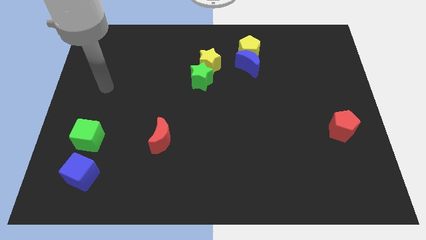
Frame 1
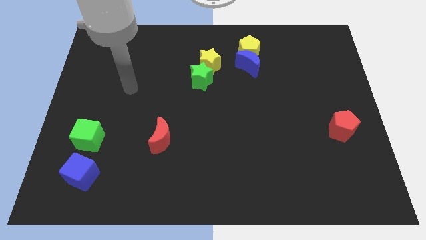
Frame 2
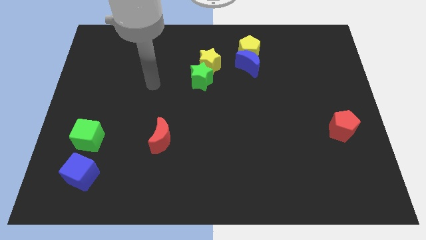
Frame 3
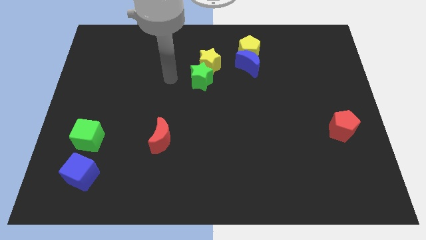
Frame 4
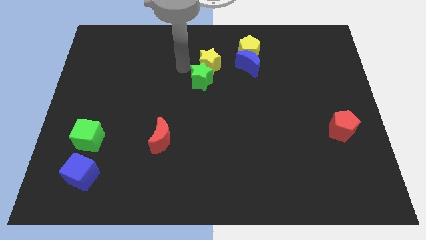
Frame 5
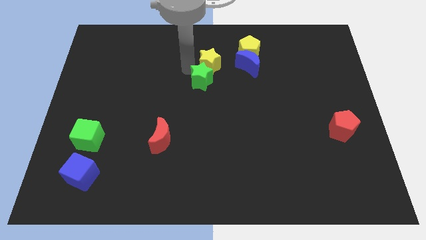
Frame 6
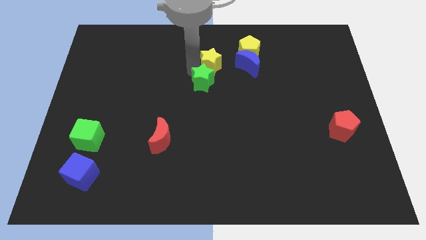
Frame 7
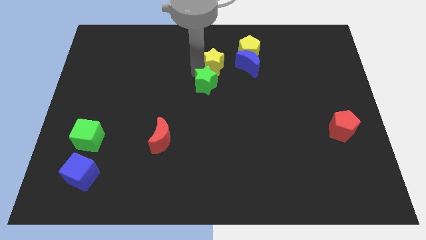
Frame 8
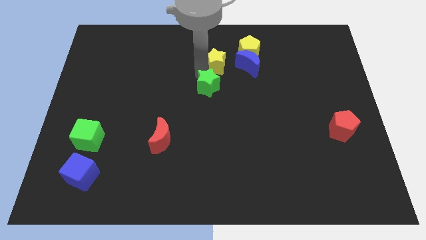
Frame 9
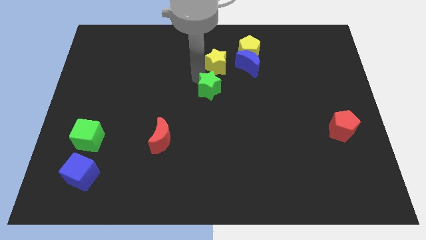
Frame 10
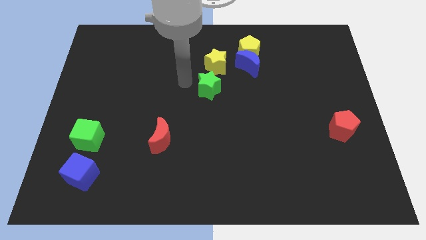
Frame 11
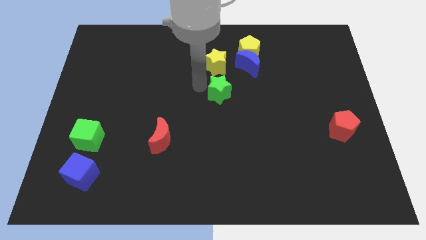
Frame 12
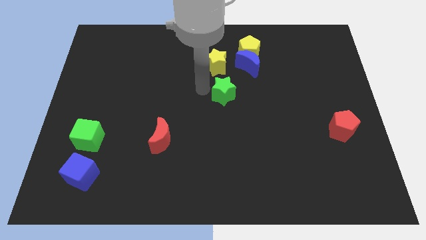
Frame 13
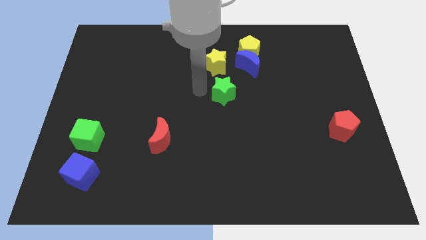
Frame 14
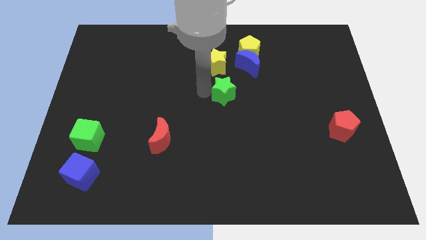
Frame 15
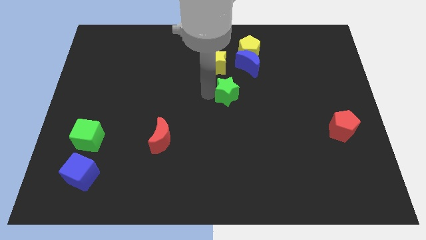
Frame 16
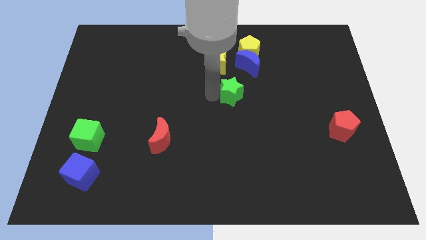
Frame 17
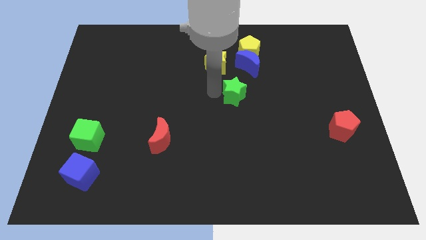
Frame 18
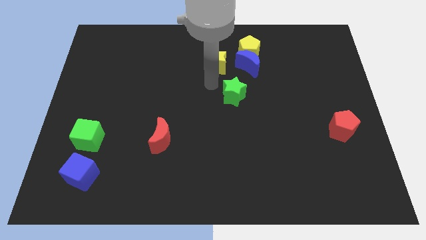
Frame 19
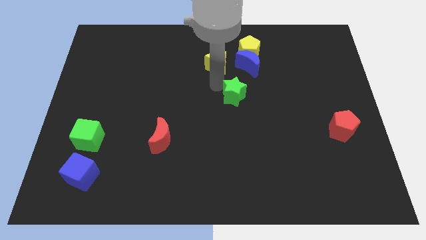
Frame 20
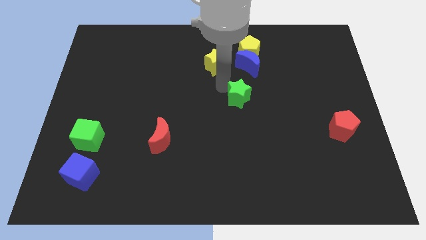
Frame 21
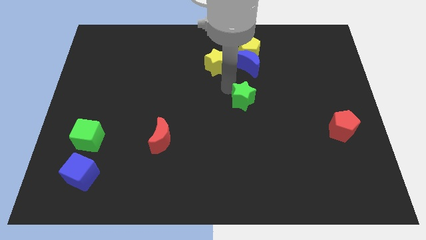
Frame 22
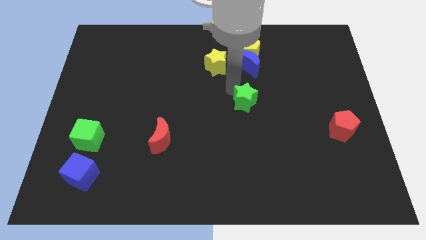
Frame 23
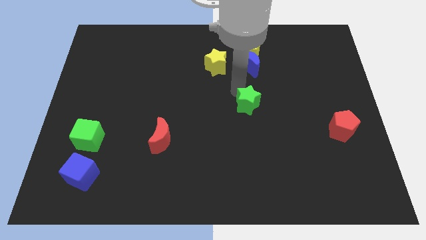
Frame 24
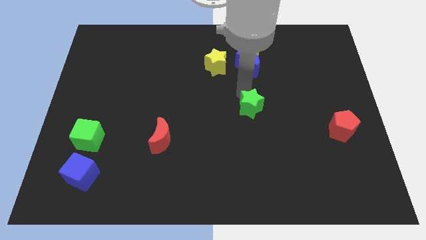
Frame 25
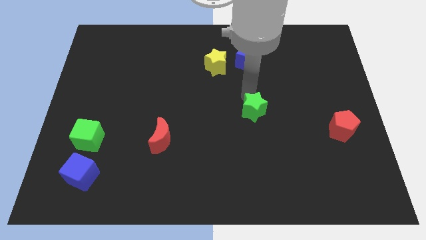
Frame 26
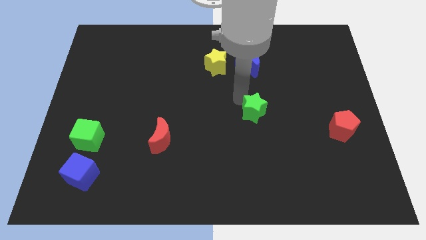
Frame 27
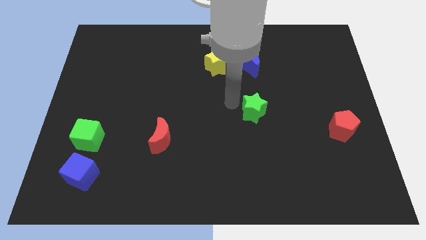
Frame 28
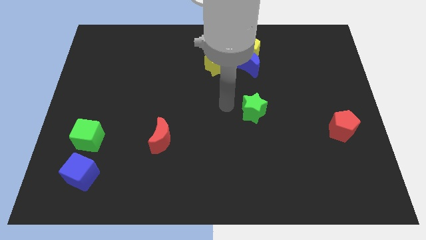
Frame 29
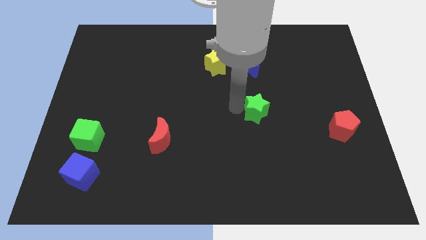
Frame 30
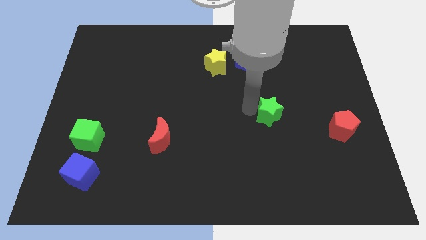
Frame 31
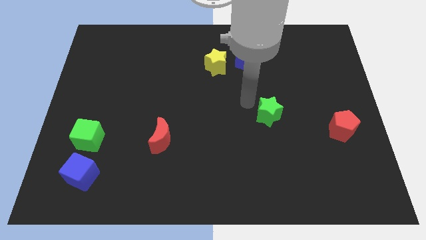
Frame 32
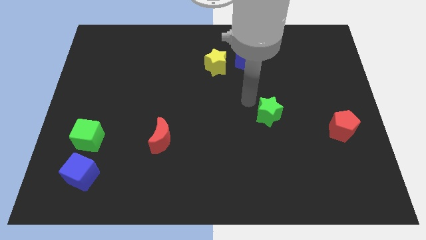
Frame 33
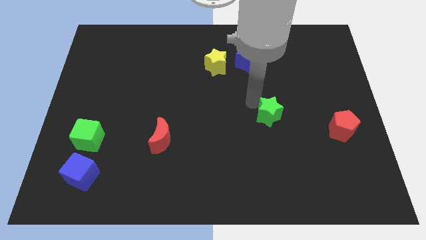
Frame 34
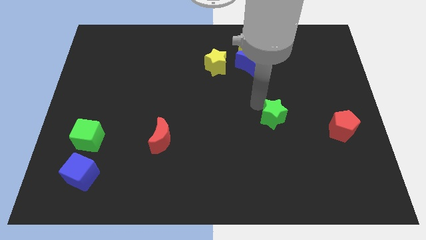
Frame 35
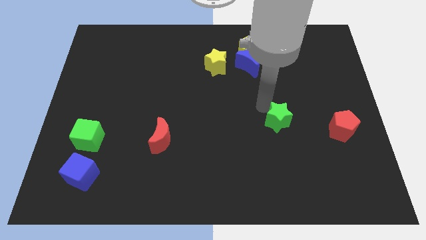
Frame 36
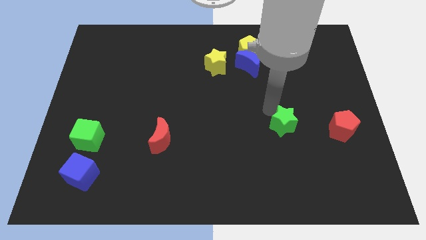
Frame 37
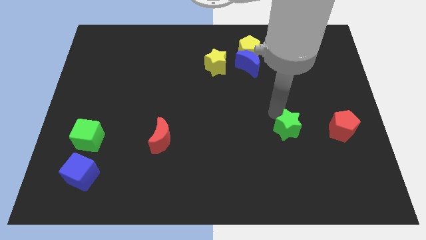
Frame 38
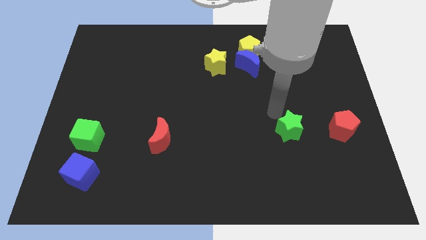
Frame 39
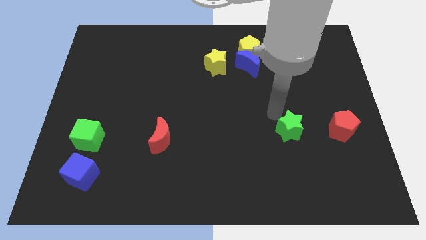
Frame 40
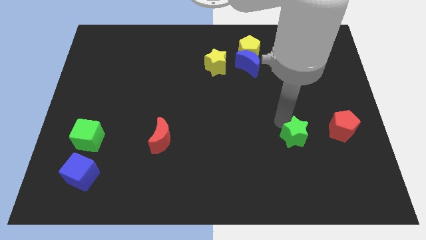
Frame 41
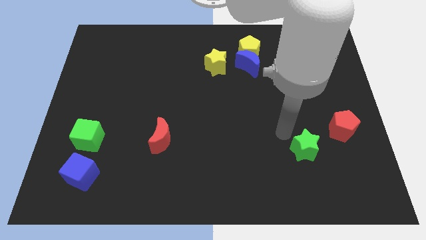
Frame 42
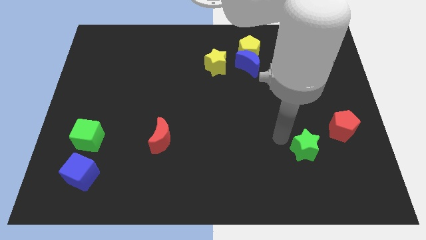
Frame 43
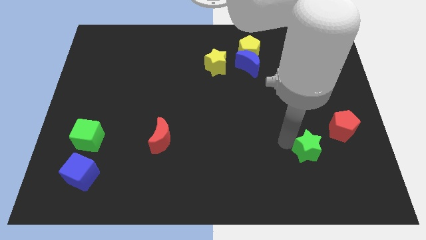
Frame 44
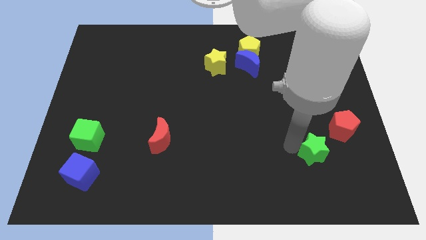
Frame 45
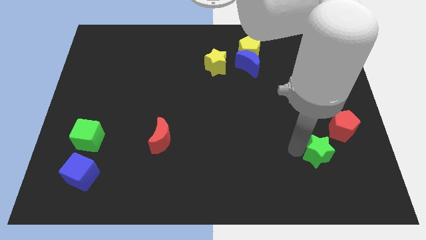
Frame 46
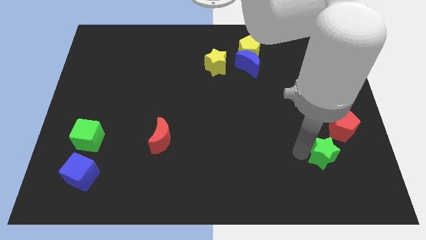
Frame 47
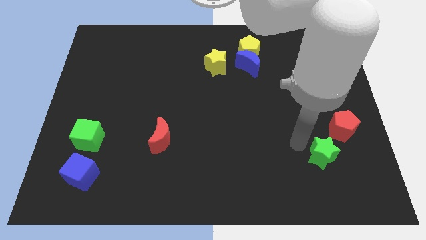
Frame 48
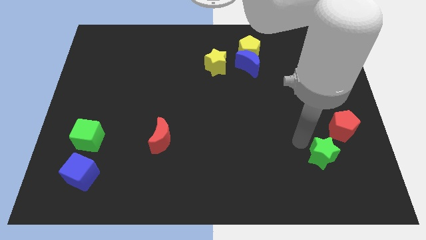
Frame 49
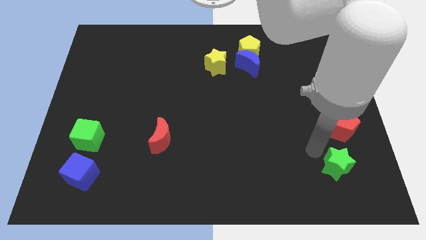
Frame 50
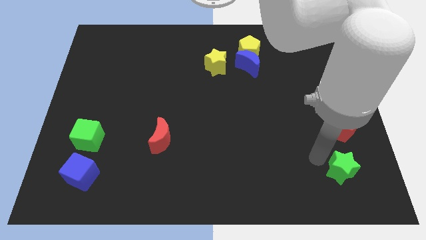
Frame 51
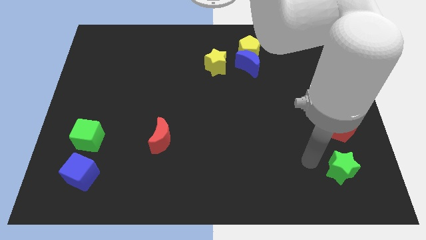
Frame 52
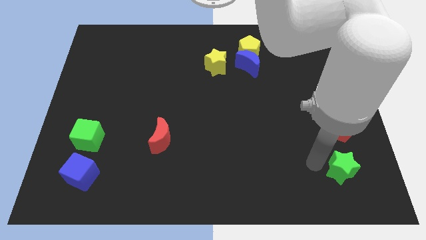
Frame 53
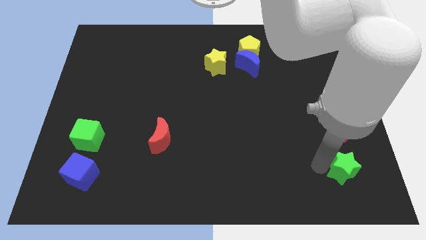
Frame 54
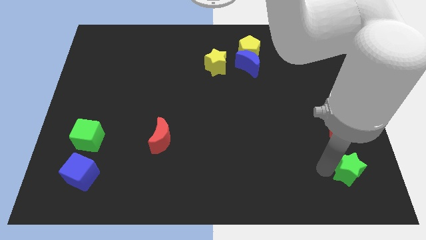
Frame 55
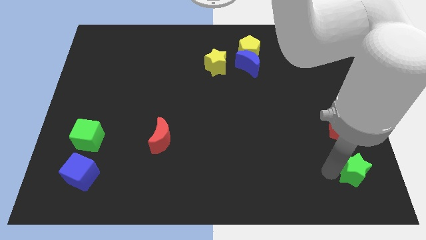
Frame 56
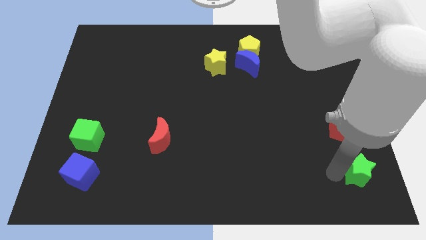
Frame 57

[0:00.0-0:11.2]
put the green star to the bottom right corner
